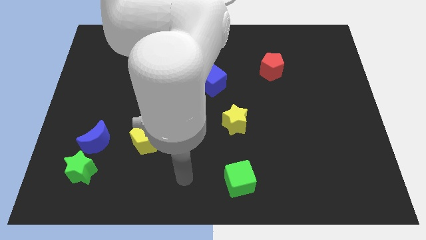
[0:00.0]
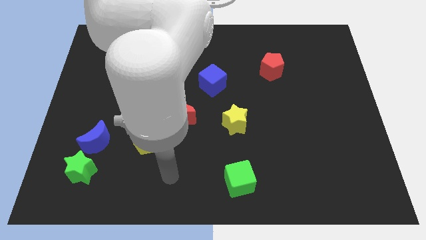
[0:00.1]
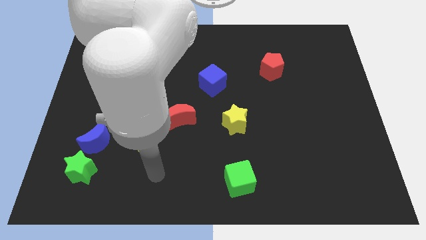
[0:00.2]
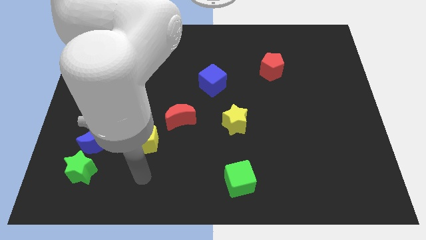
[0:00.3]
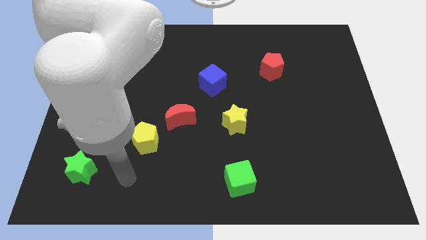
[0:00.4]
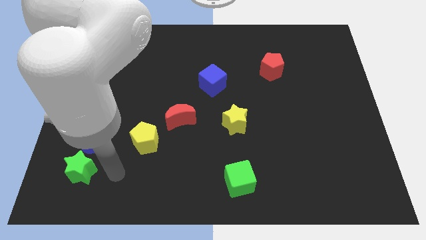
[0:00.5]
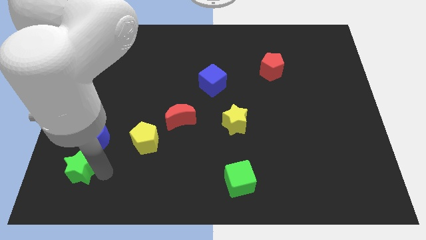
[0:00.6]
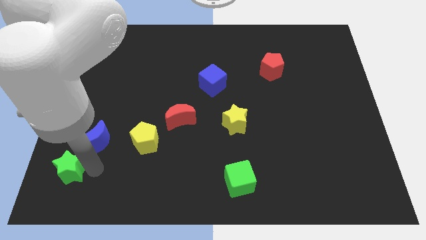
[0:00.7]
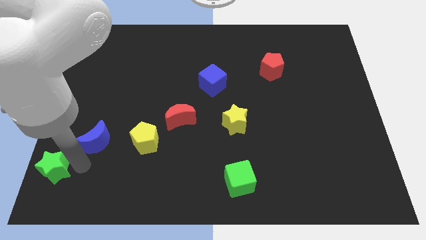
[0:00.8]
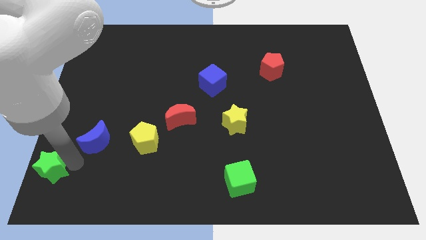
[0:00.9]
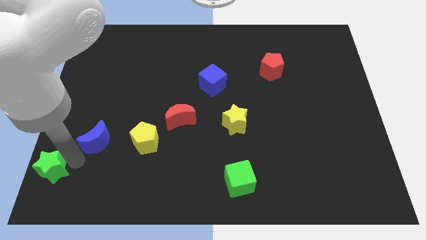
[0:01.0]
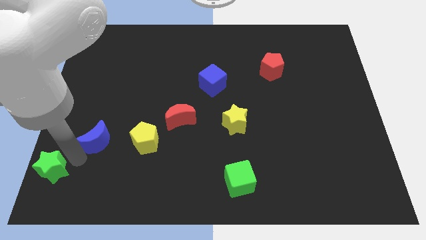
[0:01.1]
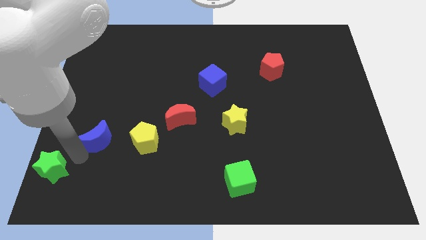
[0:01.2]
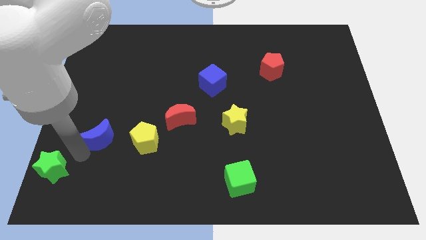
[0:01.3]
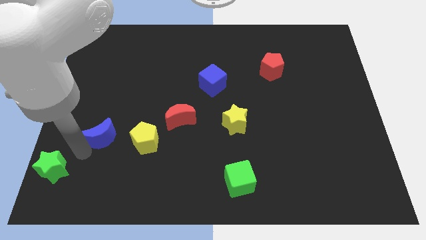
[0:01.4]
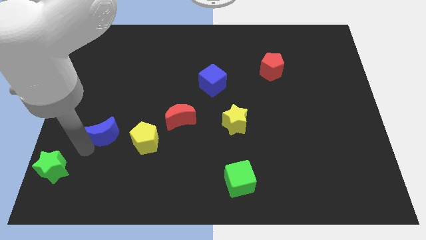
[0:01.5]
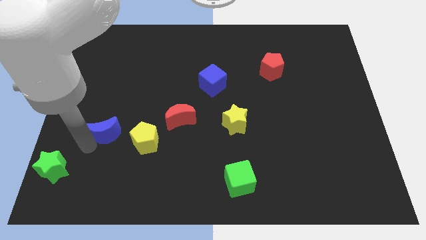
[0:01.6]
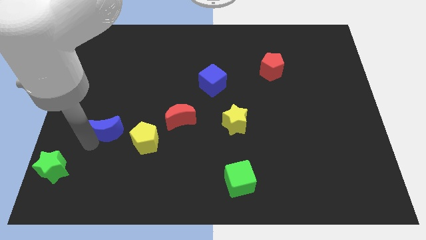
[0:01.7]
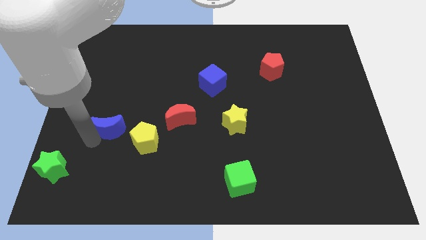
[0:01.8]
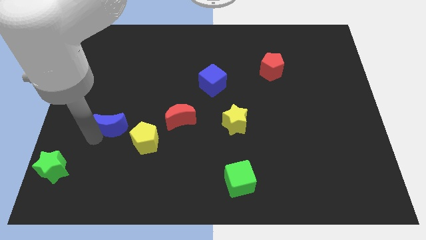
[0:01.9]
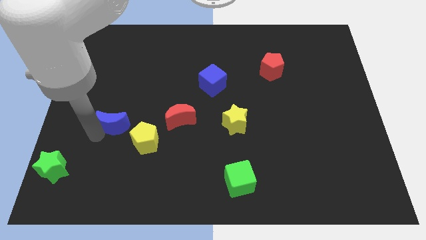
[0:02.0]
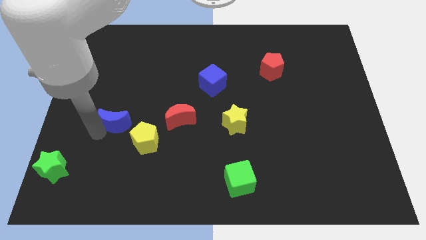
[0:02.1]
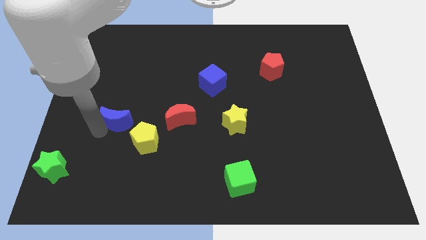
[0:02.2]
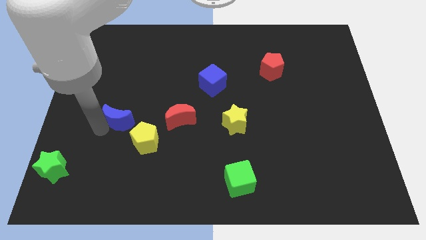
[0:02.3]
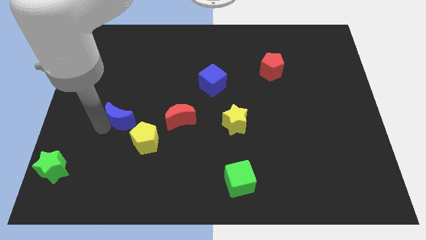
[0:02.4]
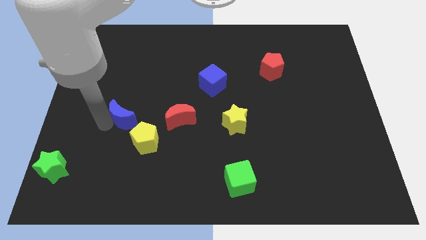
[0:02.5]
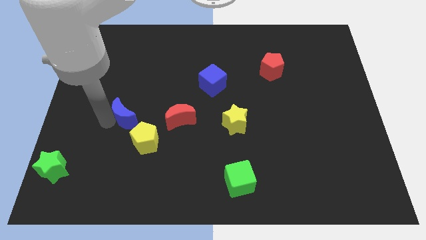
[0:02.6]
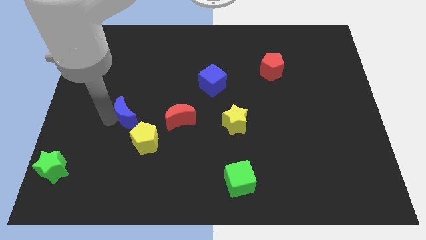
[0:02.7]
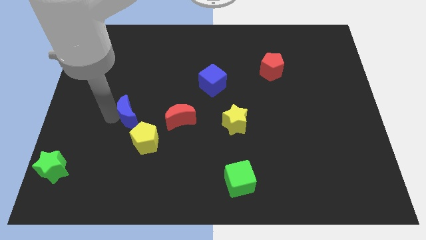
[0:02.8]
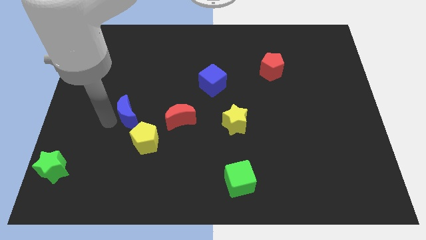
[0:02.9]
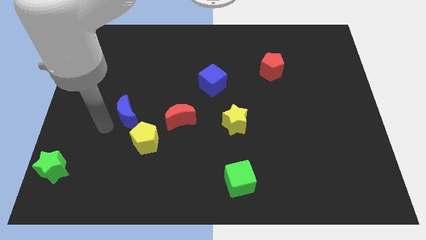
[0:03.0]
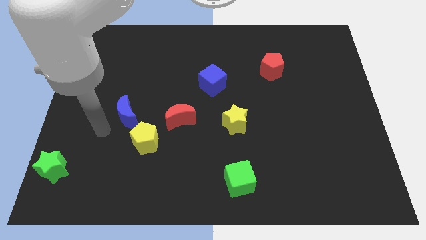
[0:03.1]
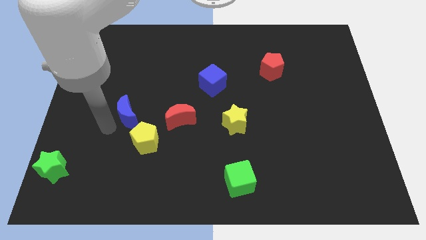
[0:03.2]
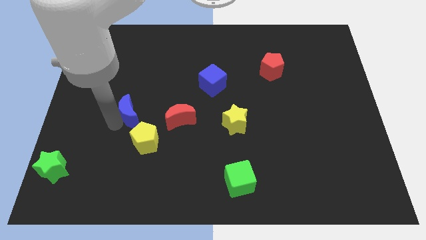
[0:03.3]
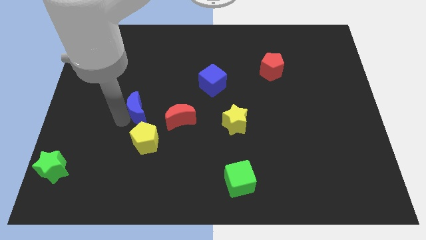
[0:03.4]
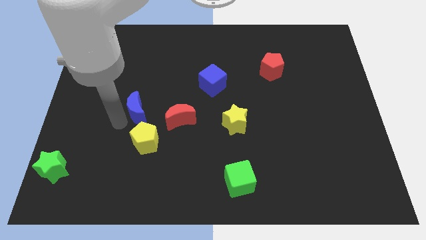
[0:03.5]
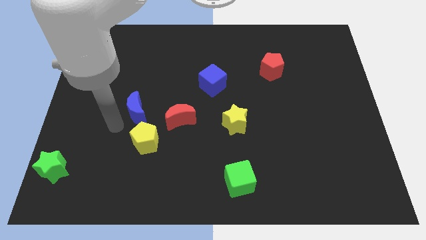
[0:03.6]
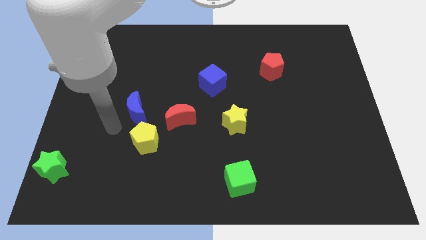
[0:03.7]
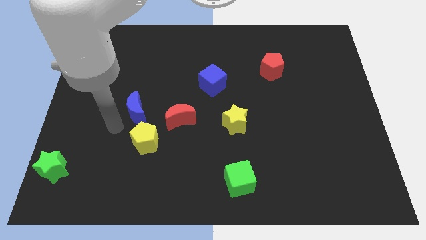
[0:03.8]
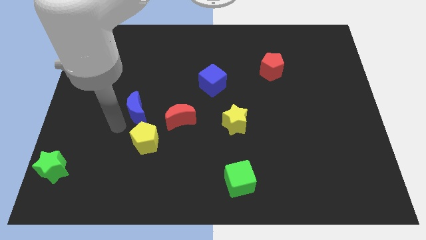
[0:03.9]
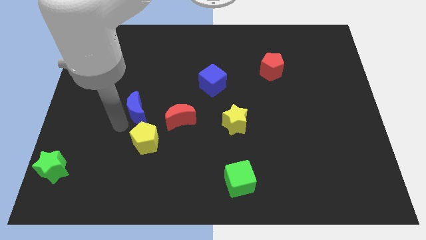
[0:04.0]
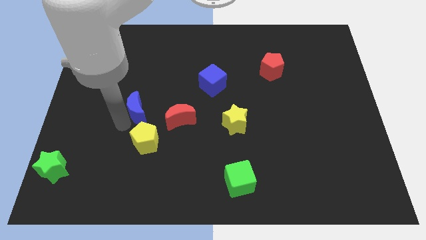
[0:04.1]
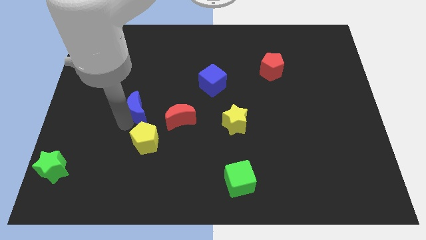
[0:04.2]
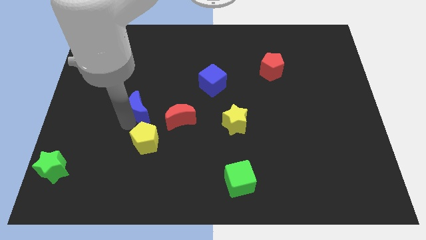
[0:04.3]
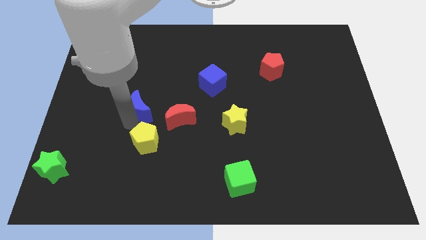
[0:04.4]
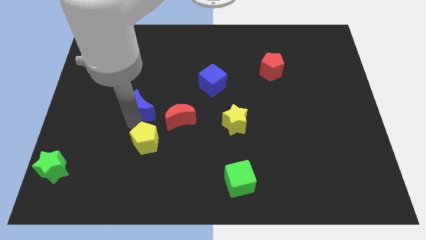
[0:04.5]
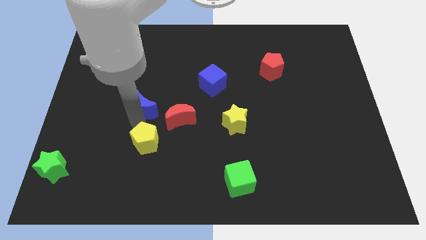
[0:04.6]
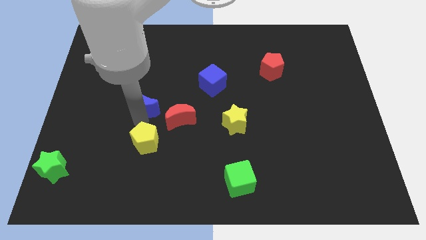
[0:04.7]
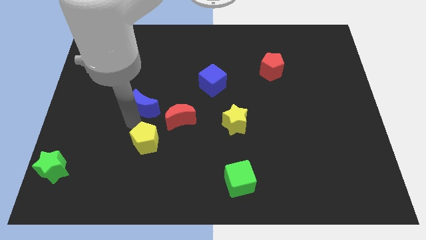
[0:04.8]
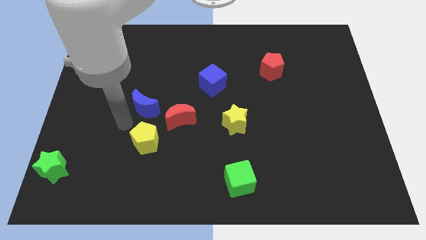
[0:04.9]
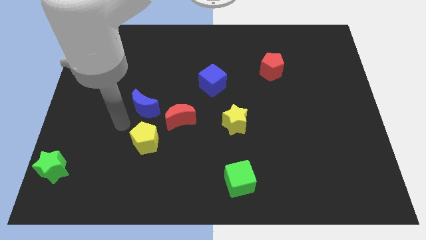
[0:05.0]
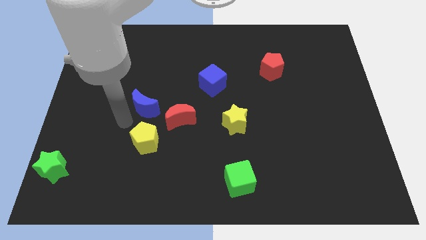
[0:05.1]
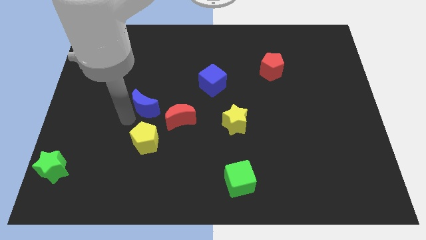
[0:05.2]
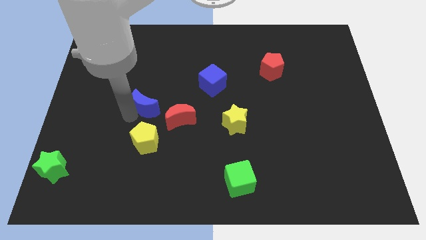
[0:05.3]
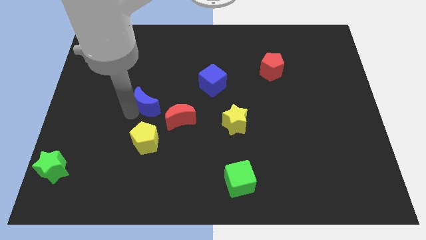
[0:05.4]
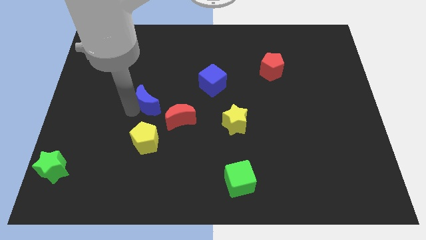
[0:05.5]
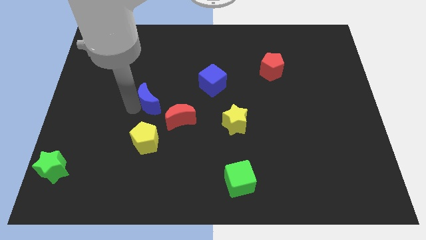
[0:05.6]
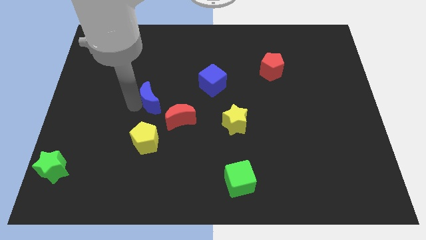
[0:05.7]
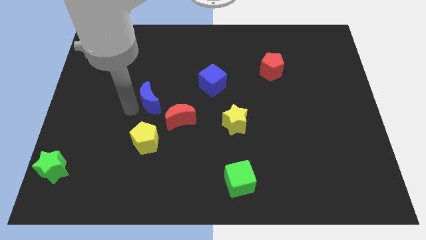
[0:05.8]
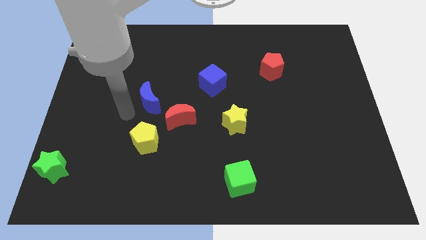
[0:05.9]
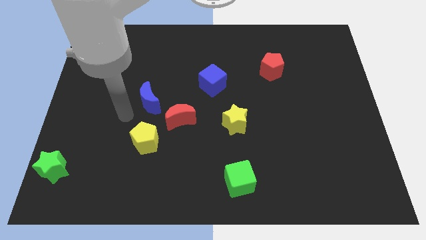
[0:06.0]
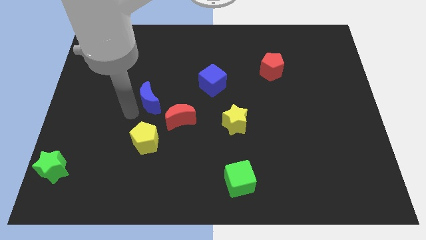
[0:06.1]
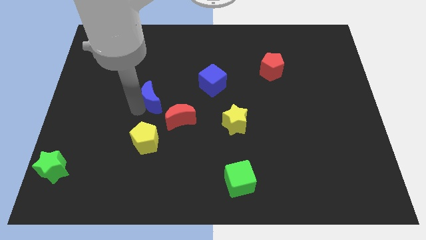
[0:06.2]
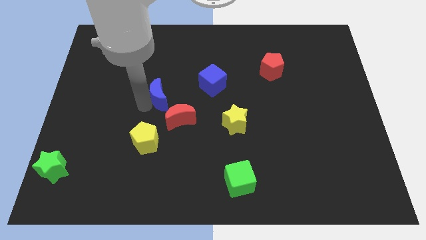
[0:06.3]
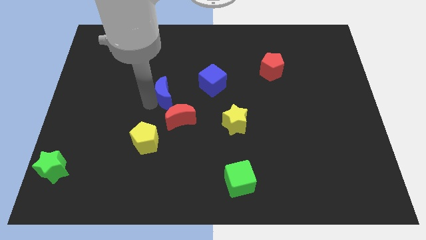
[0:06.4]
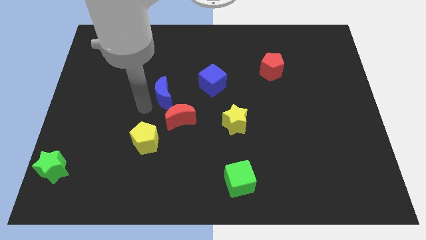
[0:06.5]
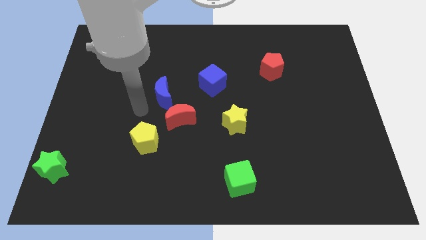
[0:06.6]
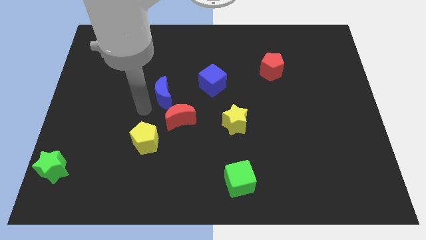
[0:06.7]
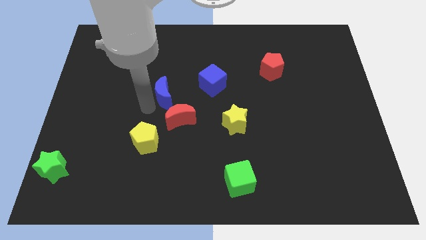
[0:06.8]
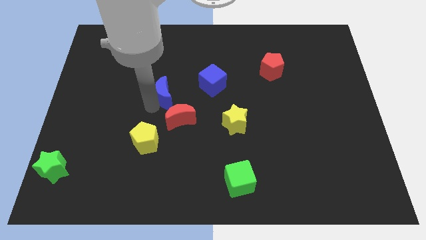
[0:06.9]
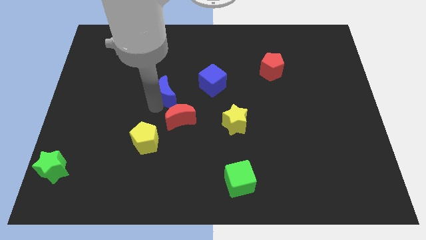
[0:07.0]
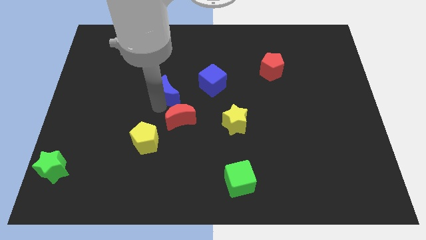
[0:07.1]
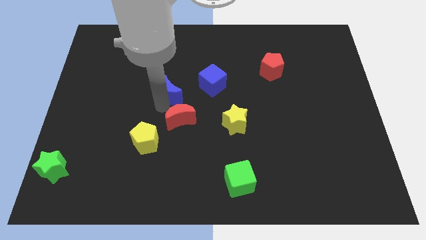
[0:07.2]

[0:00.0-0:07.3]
push the blue moon up and to the right diagonally

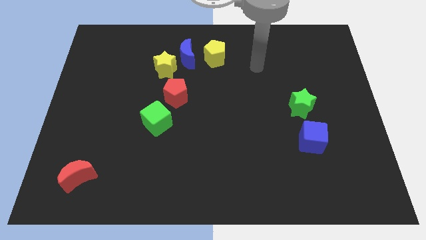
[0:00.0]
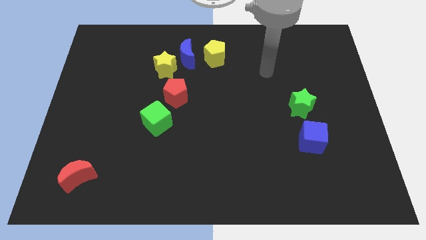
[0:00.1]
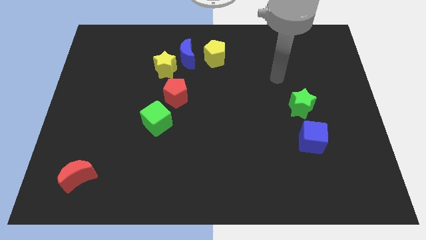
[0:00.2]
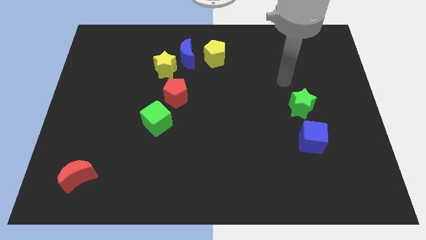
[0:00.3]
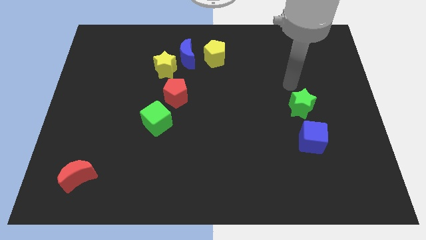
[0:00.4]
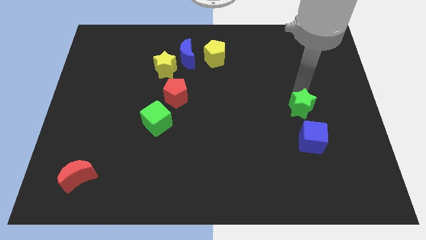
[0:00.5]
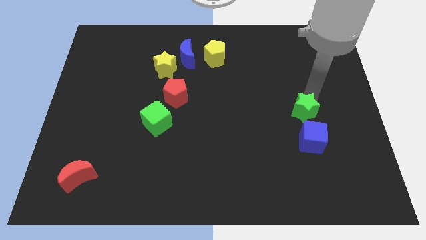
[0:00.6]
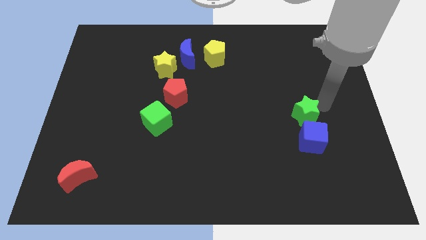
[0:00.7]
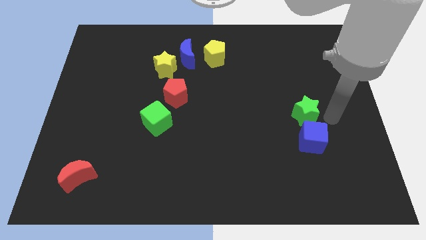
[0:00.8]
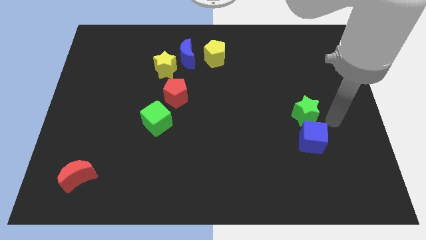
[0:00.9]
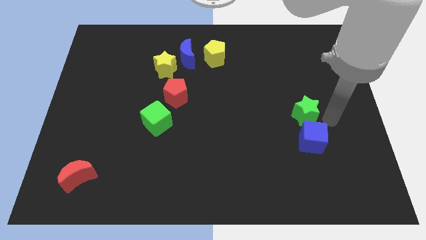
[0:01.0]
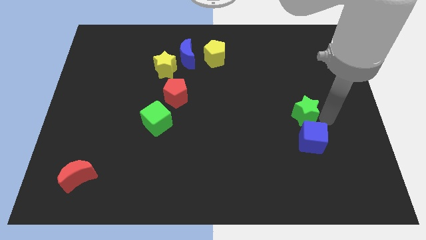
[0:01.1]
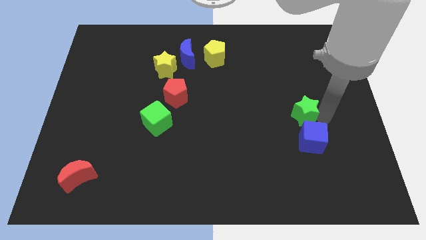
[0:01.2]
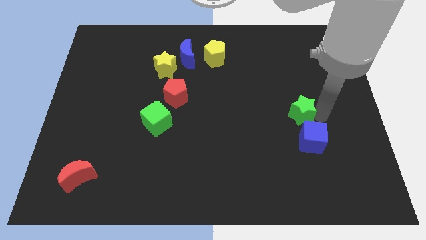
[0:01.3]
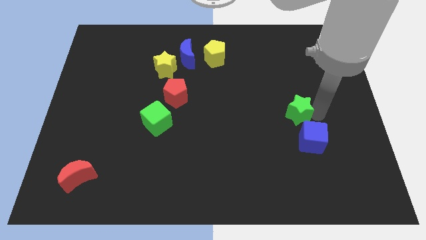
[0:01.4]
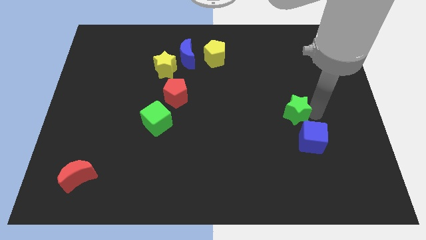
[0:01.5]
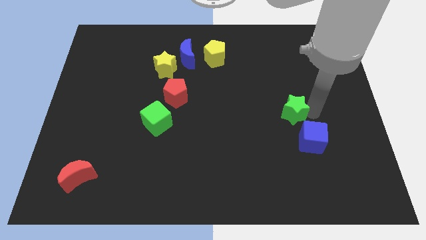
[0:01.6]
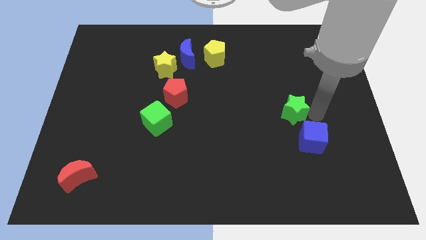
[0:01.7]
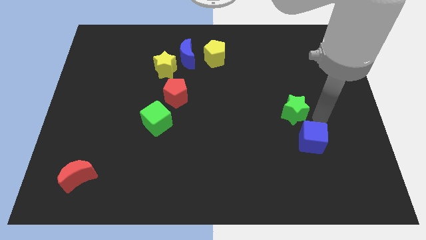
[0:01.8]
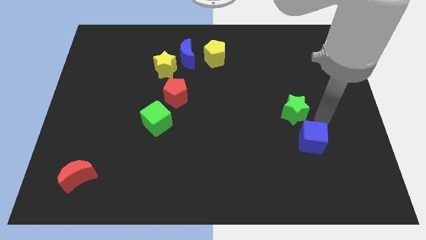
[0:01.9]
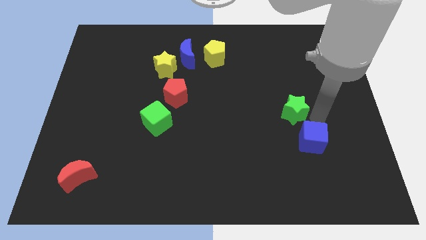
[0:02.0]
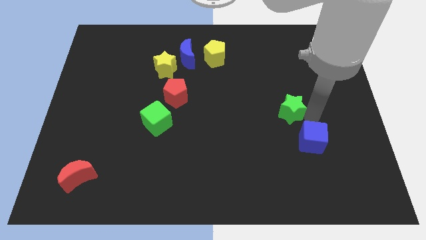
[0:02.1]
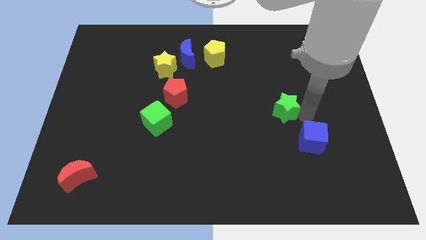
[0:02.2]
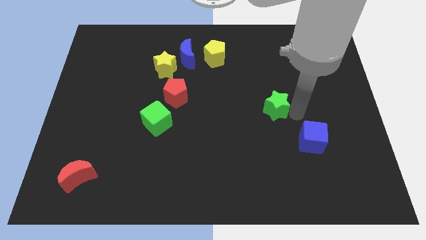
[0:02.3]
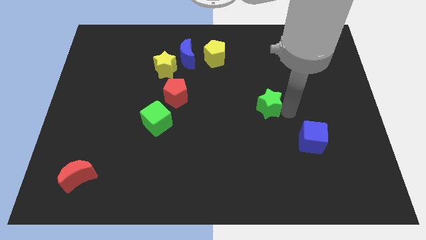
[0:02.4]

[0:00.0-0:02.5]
slightly push the green star to the left
